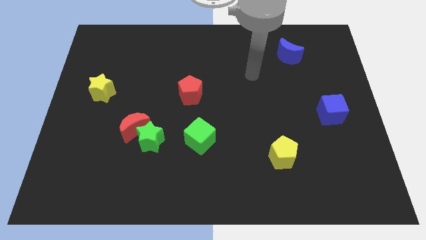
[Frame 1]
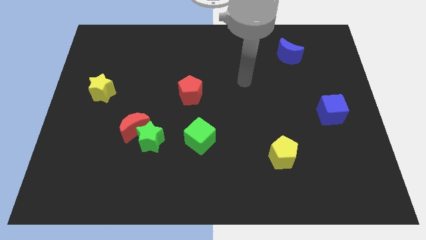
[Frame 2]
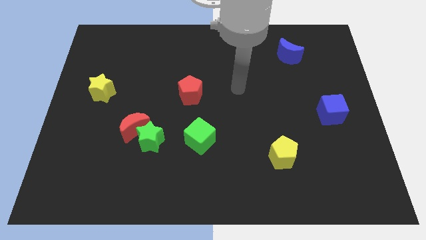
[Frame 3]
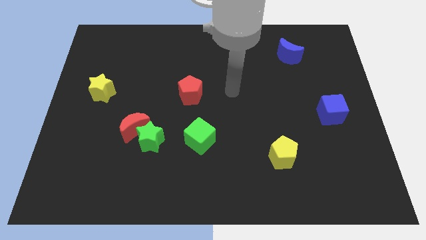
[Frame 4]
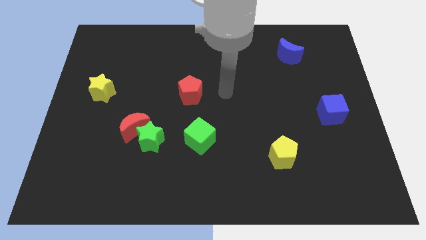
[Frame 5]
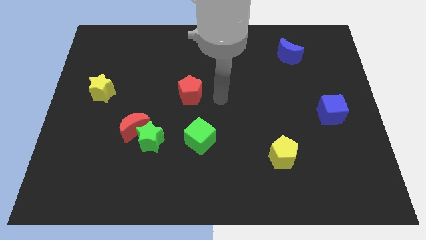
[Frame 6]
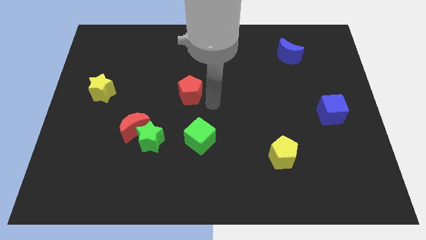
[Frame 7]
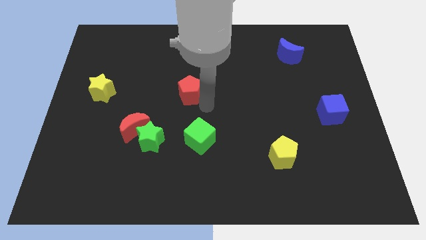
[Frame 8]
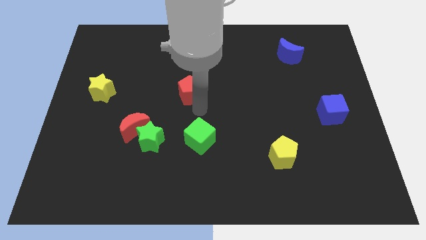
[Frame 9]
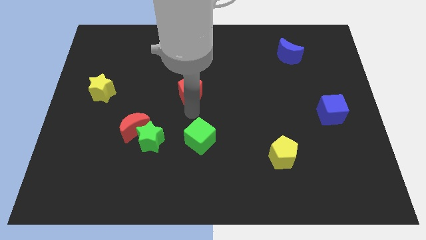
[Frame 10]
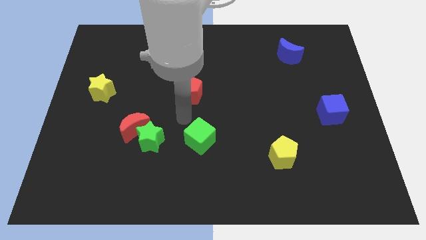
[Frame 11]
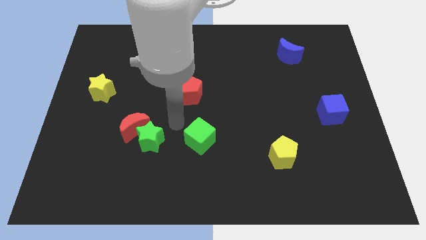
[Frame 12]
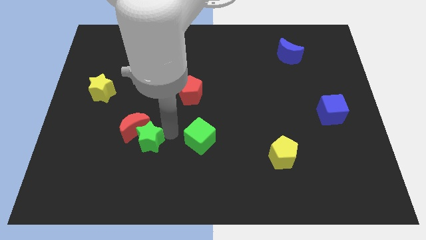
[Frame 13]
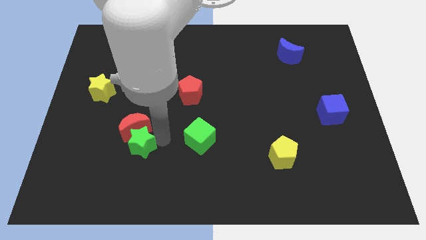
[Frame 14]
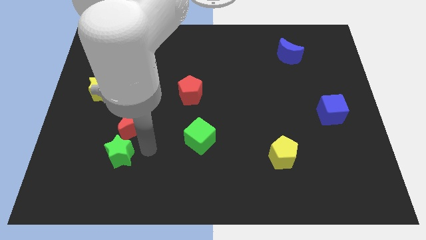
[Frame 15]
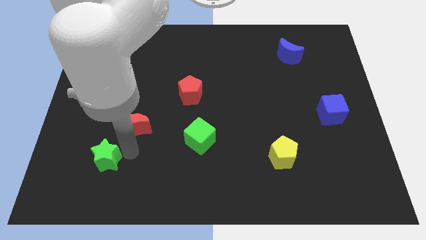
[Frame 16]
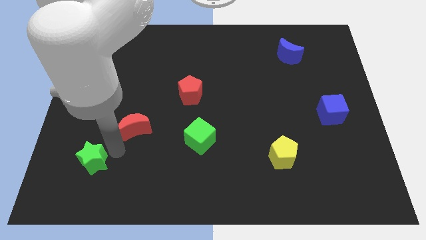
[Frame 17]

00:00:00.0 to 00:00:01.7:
separate the red moon from the green star

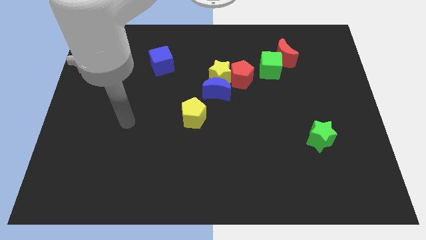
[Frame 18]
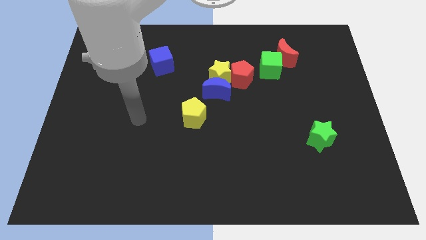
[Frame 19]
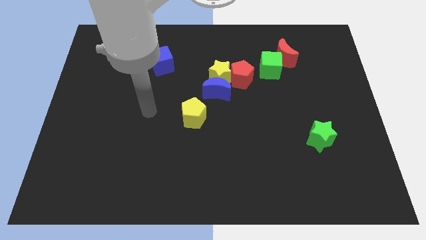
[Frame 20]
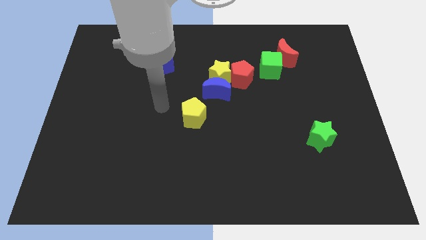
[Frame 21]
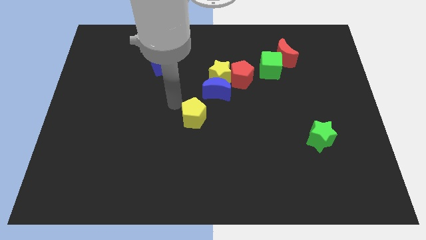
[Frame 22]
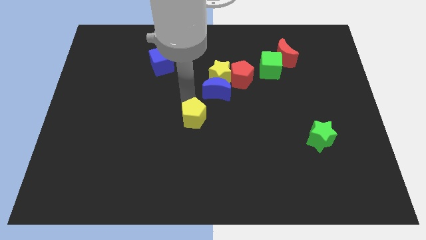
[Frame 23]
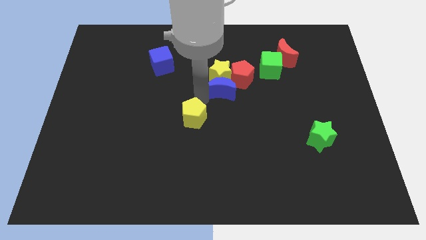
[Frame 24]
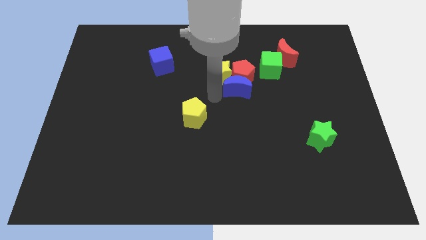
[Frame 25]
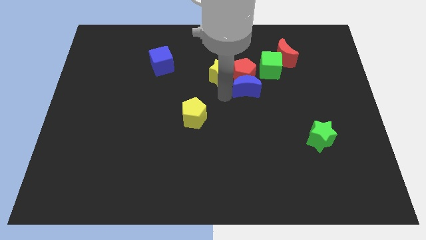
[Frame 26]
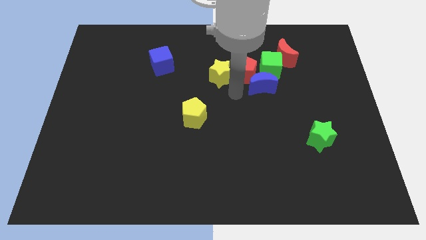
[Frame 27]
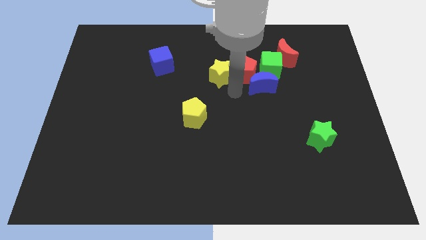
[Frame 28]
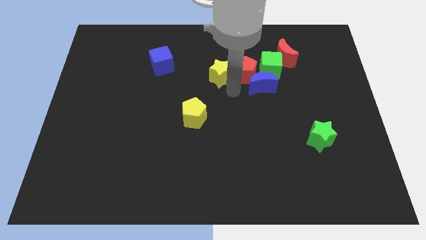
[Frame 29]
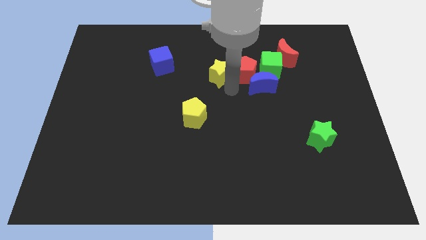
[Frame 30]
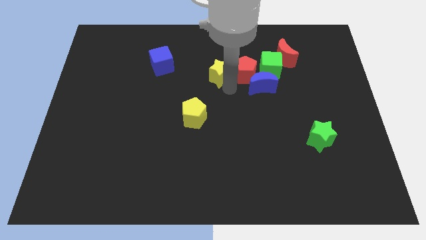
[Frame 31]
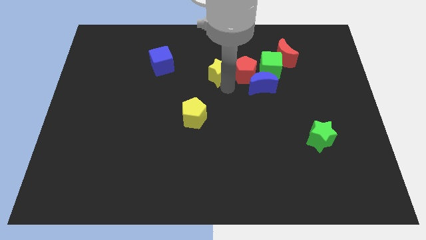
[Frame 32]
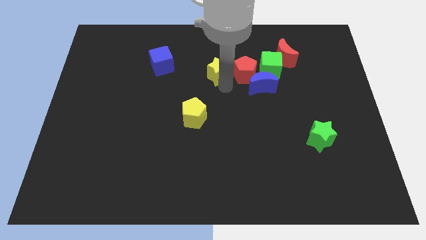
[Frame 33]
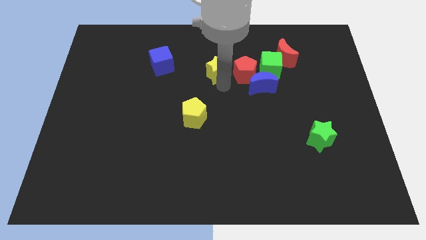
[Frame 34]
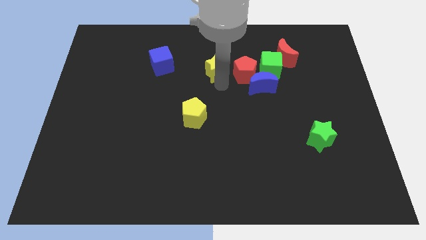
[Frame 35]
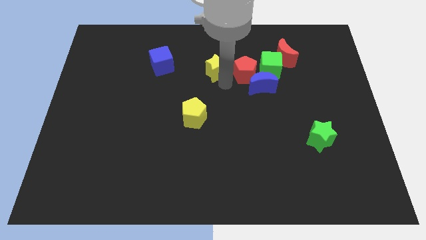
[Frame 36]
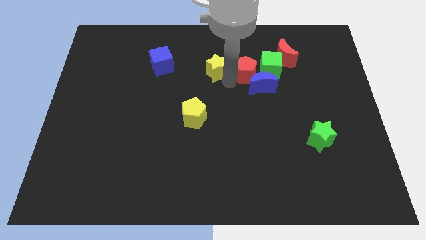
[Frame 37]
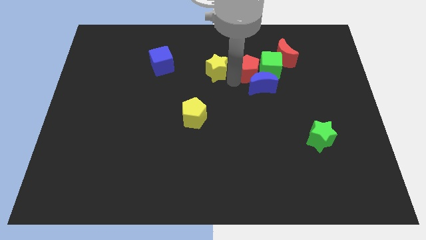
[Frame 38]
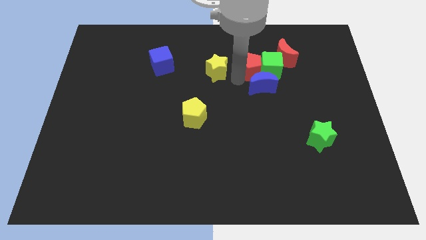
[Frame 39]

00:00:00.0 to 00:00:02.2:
move the yellow star away from the blue moon and red pentagon

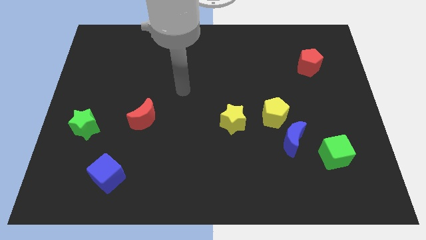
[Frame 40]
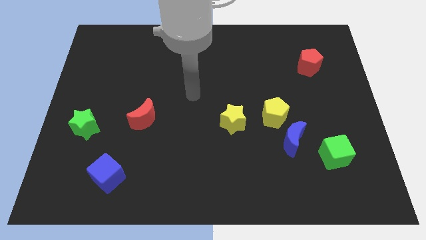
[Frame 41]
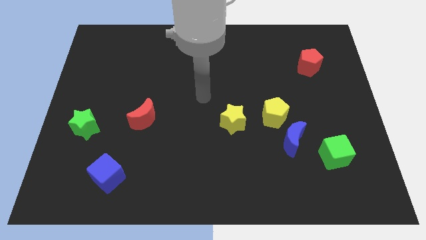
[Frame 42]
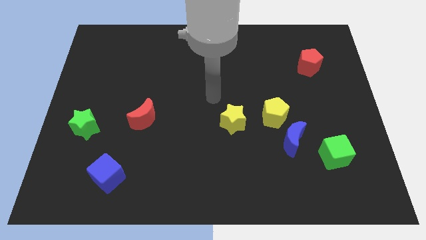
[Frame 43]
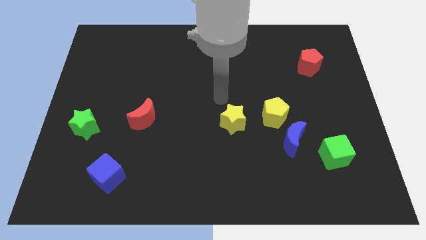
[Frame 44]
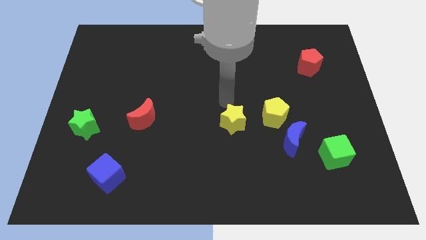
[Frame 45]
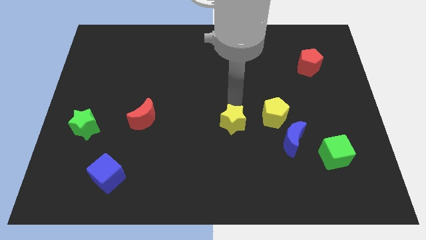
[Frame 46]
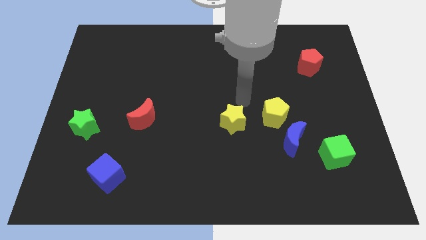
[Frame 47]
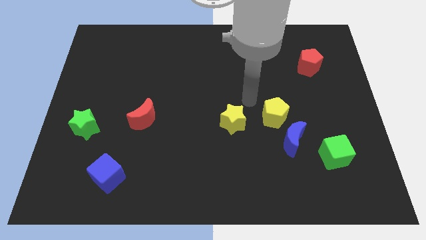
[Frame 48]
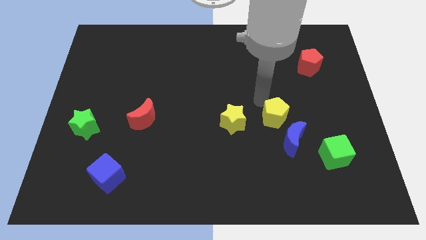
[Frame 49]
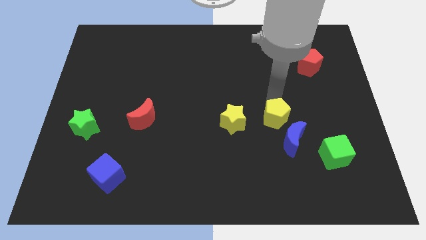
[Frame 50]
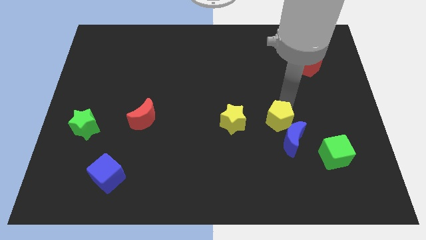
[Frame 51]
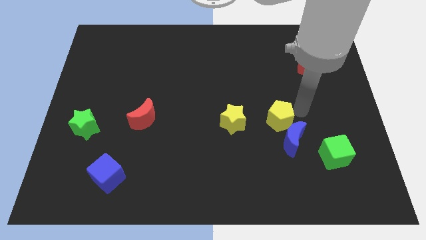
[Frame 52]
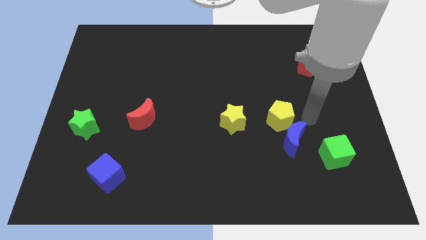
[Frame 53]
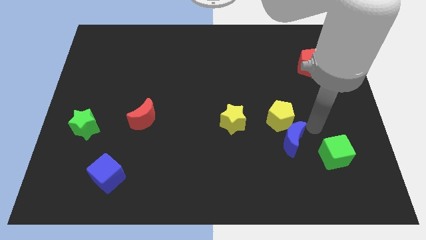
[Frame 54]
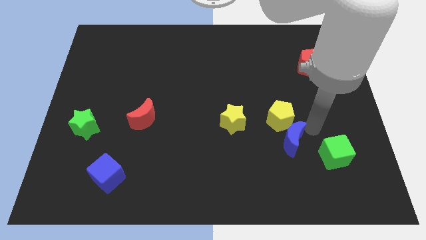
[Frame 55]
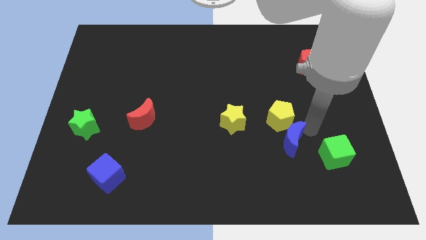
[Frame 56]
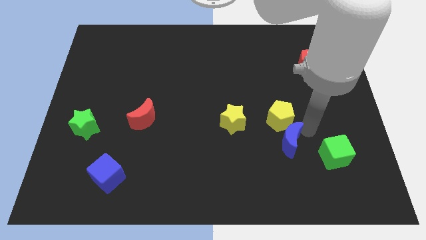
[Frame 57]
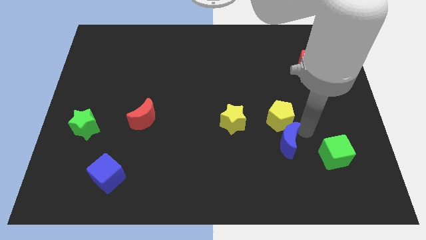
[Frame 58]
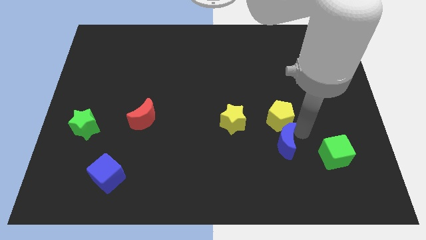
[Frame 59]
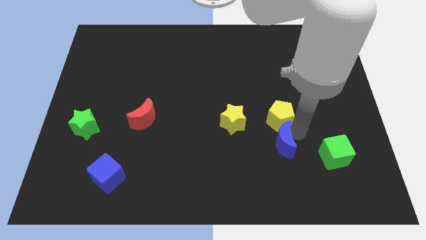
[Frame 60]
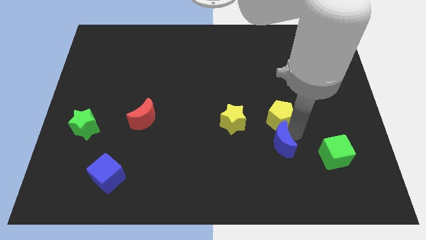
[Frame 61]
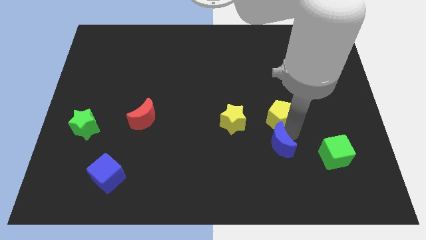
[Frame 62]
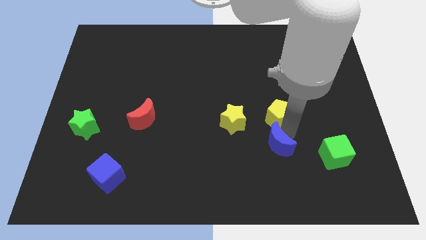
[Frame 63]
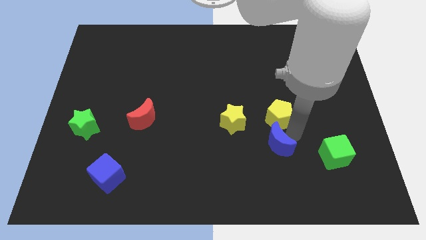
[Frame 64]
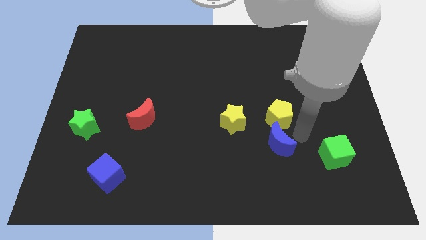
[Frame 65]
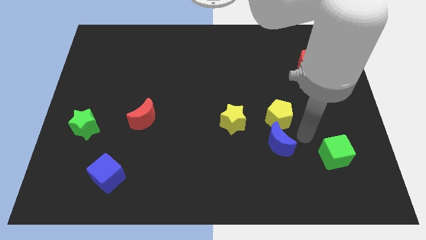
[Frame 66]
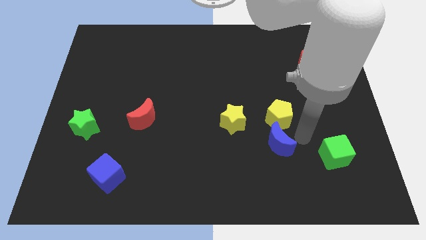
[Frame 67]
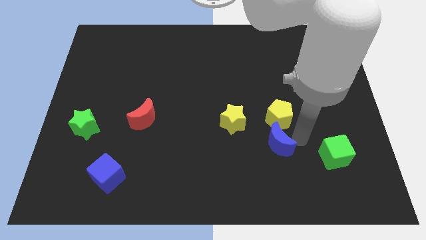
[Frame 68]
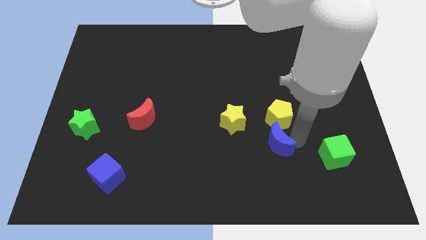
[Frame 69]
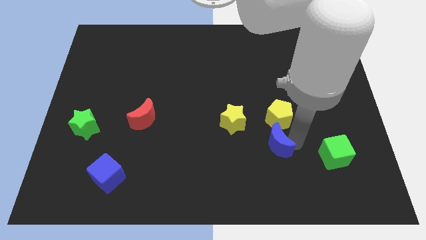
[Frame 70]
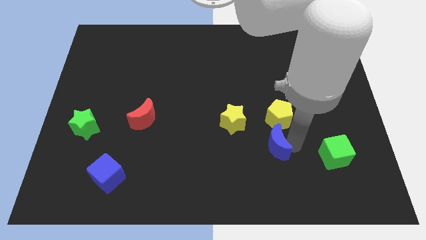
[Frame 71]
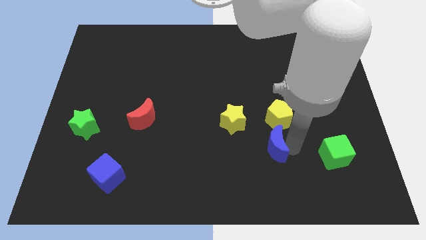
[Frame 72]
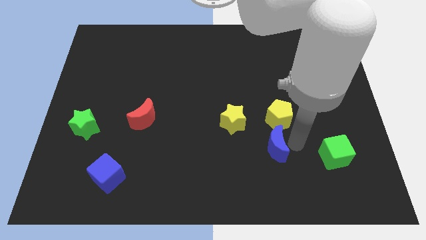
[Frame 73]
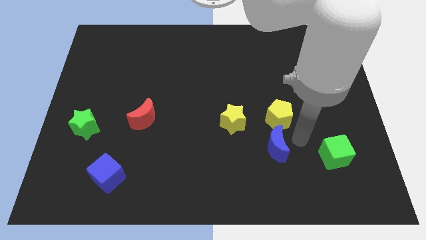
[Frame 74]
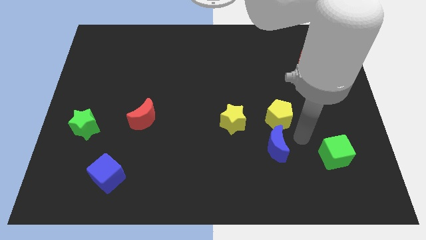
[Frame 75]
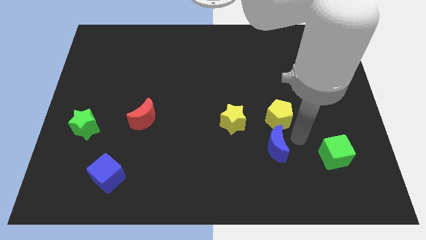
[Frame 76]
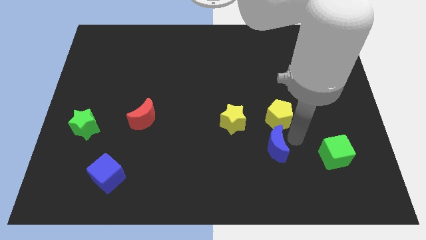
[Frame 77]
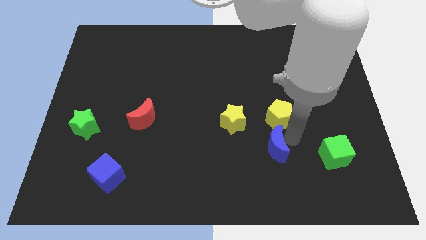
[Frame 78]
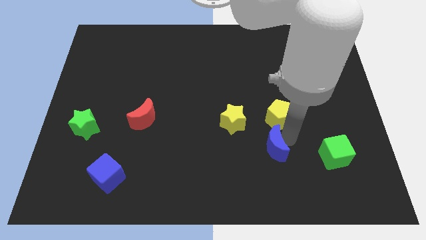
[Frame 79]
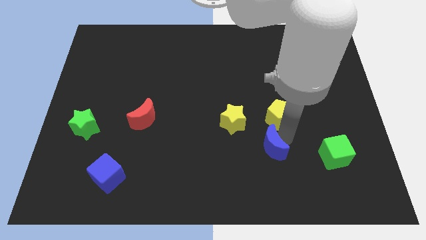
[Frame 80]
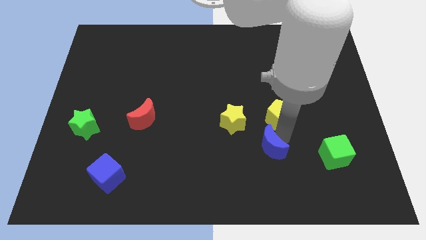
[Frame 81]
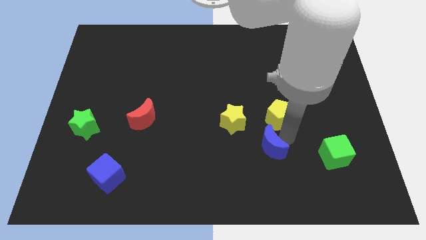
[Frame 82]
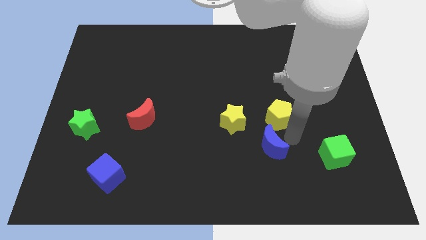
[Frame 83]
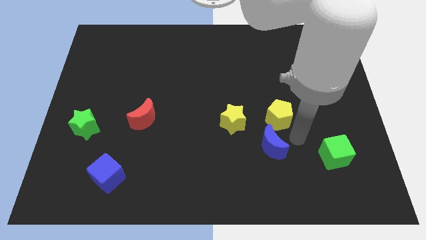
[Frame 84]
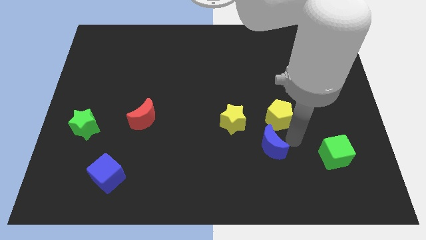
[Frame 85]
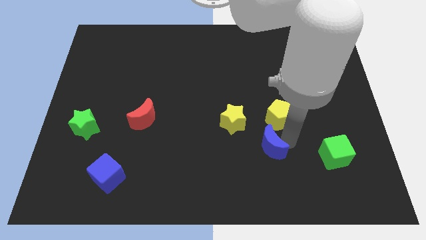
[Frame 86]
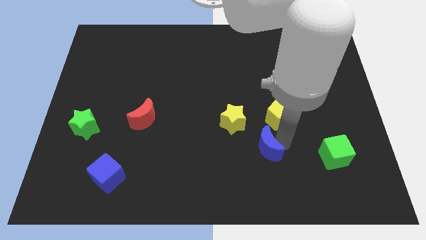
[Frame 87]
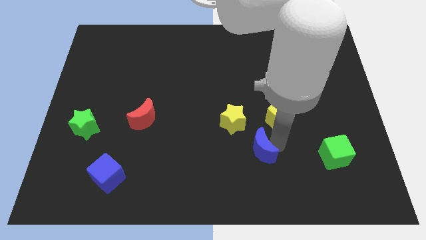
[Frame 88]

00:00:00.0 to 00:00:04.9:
move the blue moon away from the yellow pentagon and green cube

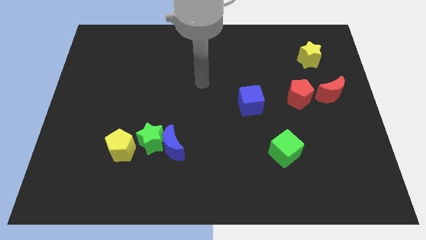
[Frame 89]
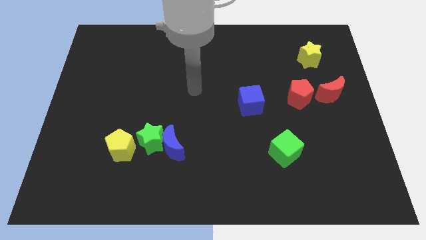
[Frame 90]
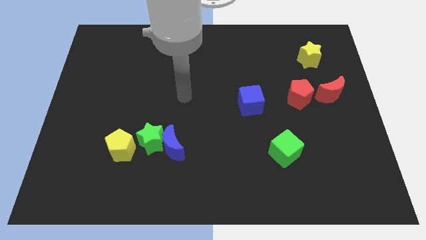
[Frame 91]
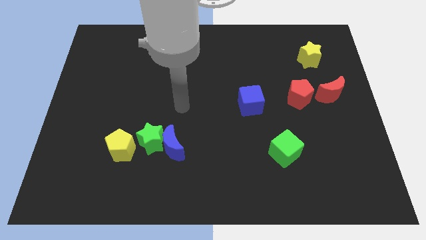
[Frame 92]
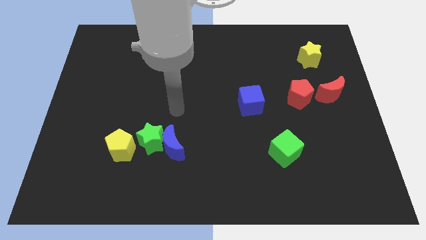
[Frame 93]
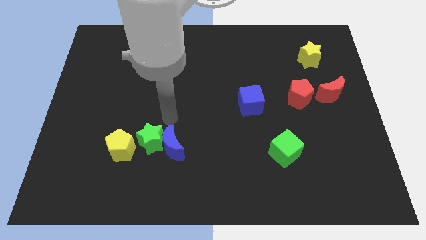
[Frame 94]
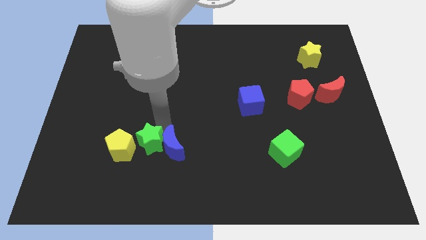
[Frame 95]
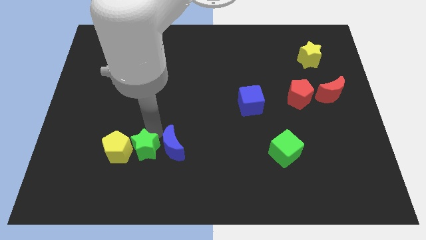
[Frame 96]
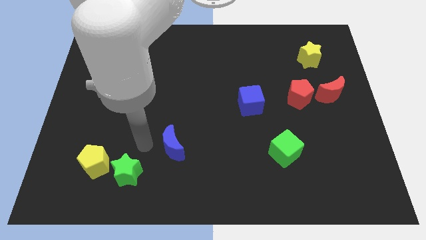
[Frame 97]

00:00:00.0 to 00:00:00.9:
pull the blue moon apart from the green star
